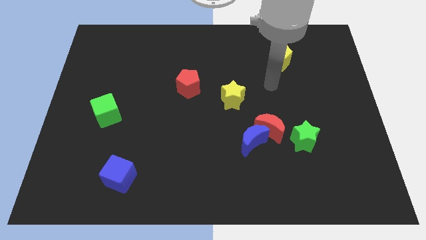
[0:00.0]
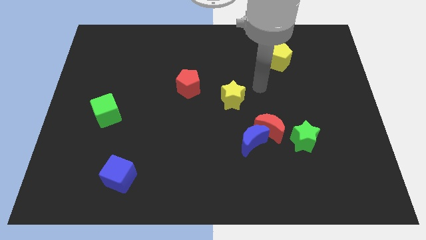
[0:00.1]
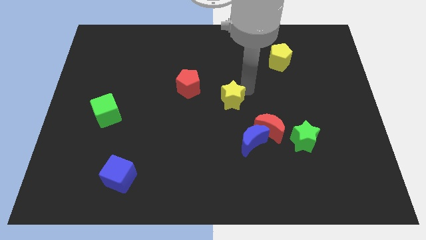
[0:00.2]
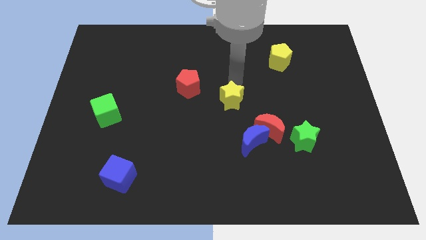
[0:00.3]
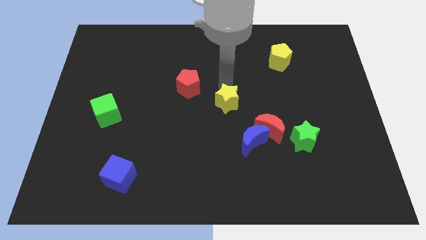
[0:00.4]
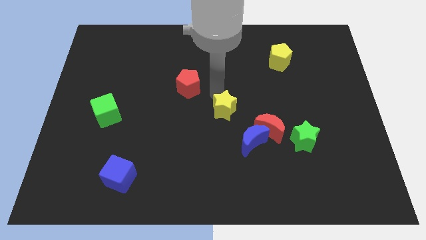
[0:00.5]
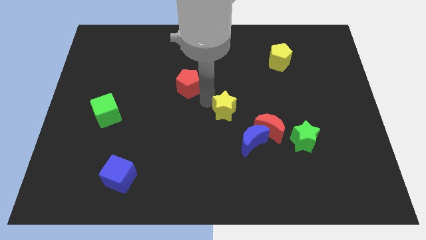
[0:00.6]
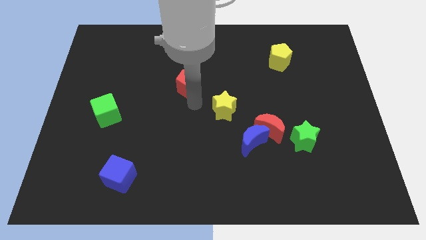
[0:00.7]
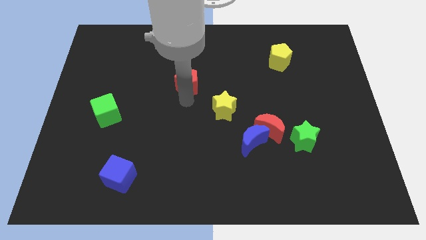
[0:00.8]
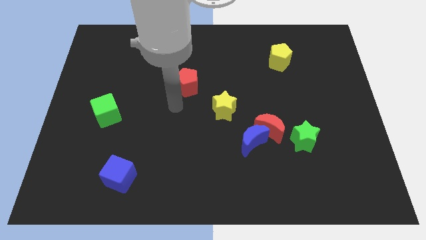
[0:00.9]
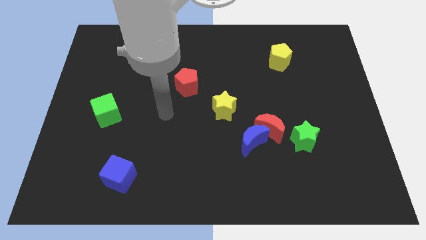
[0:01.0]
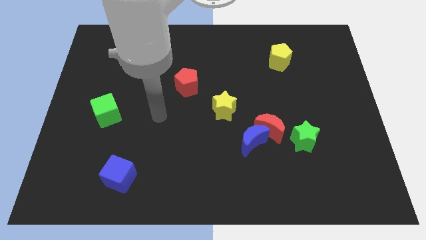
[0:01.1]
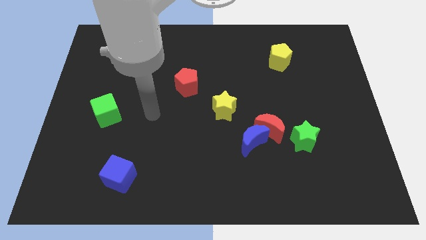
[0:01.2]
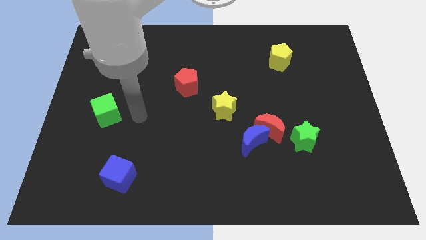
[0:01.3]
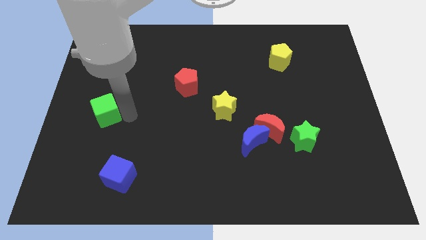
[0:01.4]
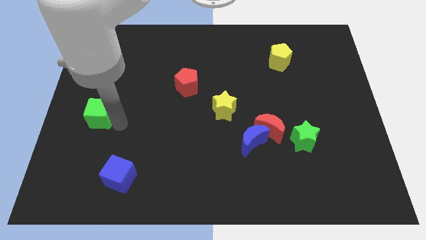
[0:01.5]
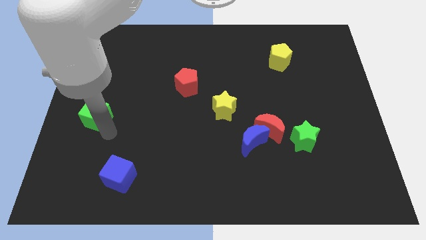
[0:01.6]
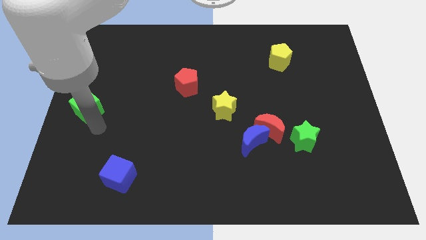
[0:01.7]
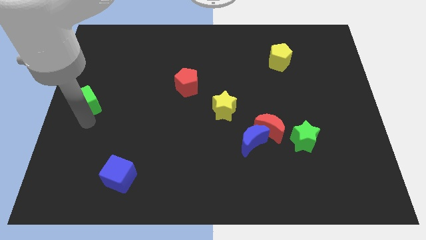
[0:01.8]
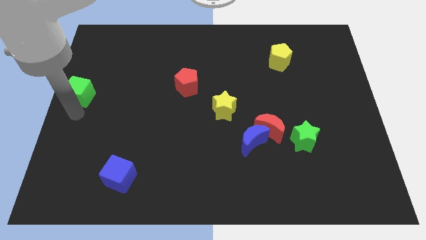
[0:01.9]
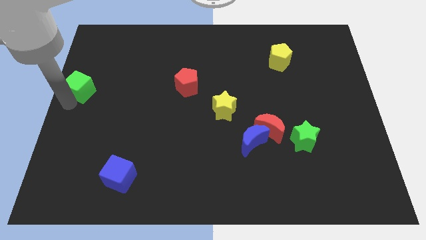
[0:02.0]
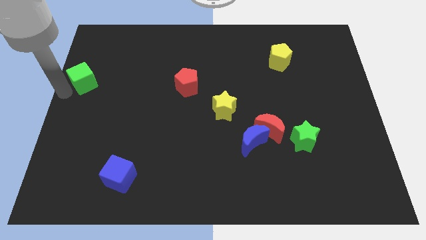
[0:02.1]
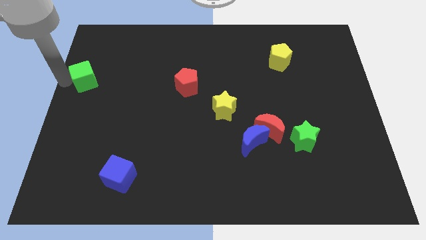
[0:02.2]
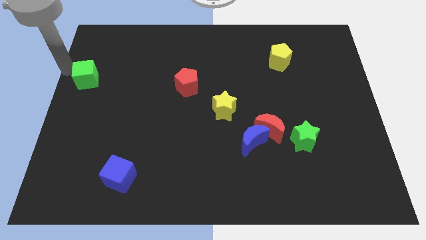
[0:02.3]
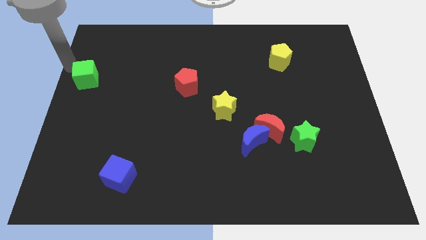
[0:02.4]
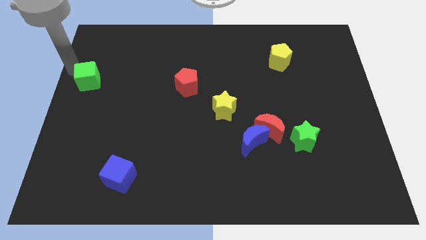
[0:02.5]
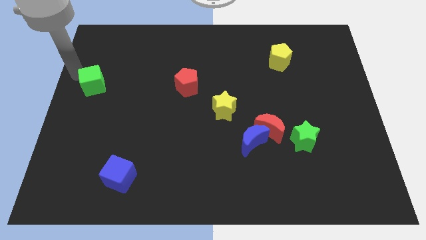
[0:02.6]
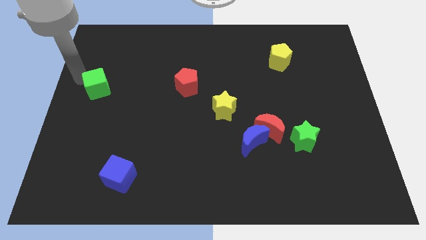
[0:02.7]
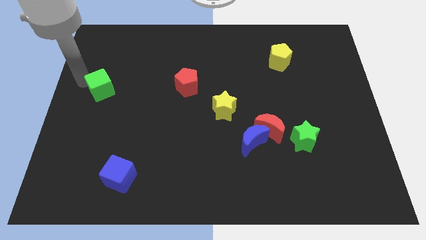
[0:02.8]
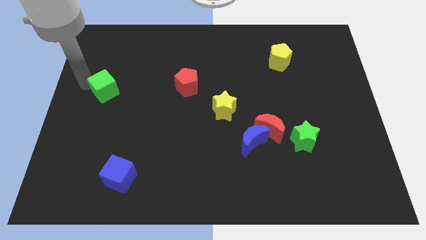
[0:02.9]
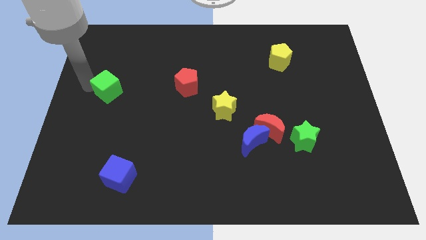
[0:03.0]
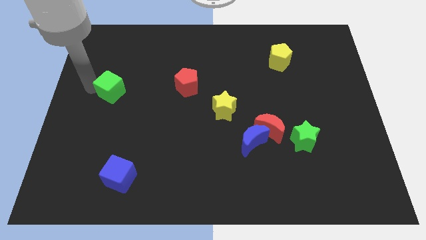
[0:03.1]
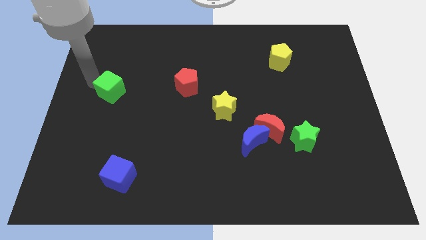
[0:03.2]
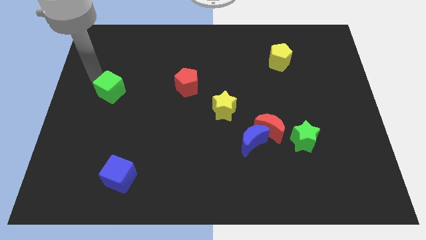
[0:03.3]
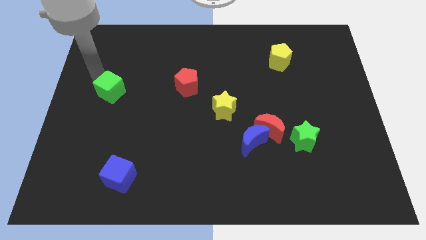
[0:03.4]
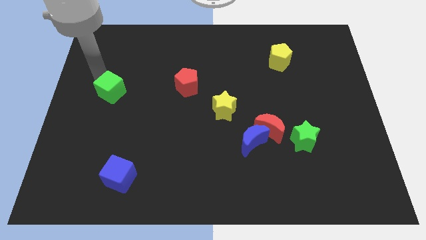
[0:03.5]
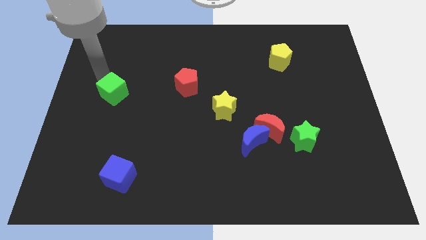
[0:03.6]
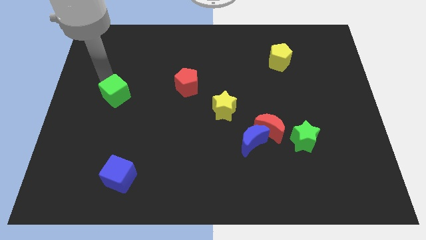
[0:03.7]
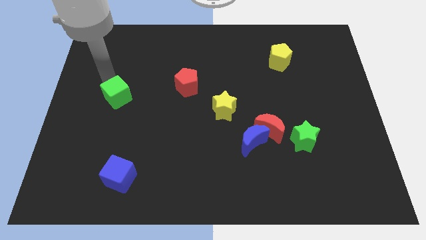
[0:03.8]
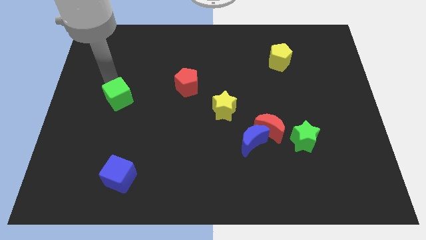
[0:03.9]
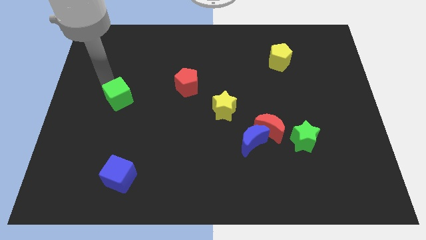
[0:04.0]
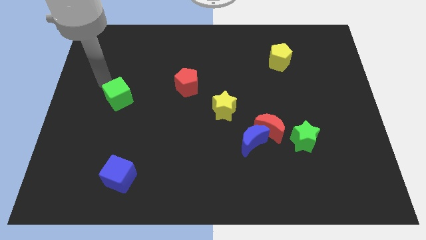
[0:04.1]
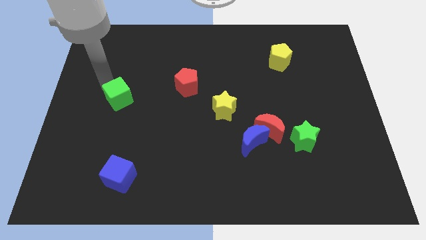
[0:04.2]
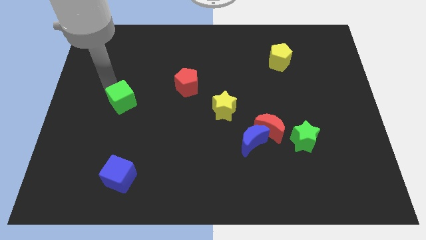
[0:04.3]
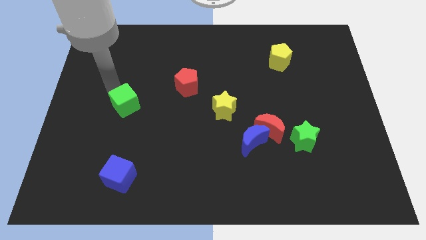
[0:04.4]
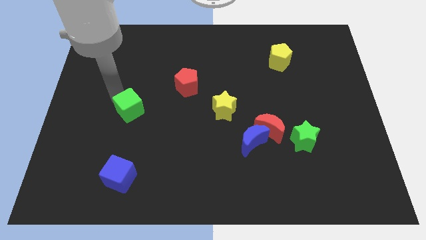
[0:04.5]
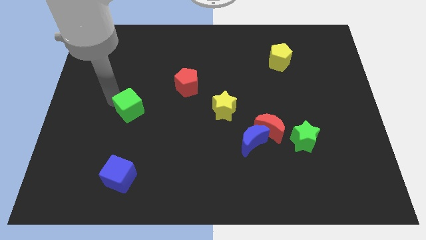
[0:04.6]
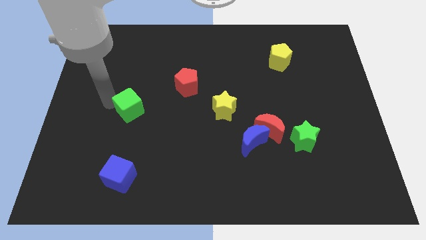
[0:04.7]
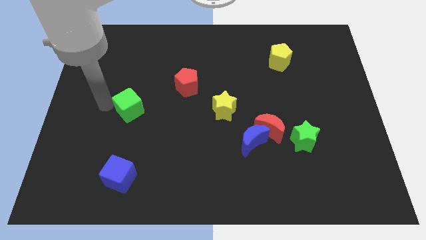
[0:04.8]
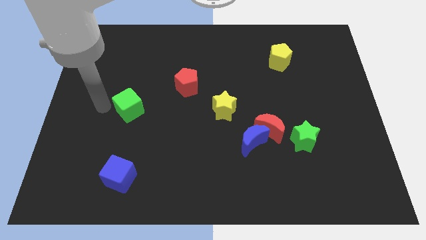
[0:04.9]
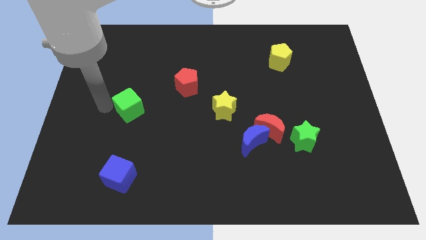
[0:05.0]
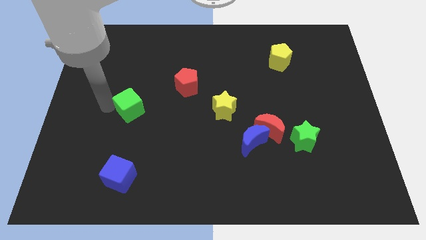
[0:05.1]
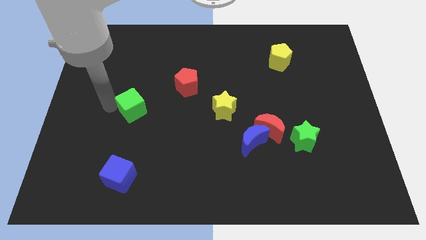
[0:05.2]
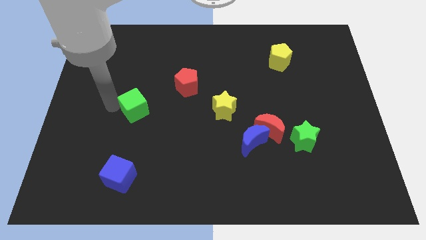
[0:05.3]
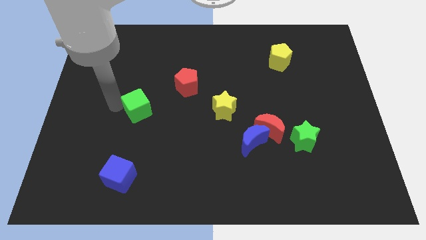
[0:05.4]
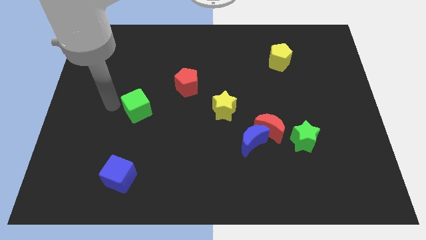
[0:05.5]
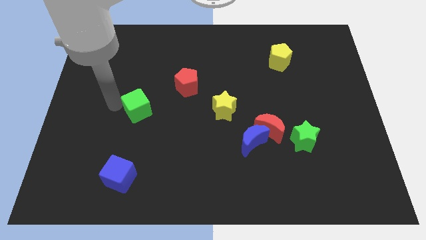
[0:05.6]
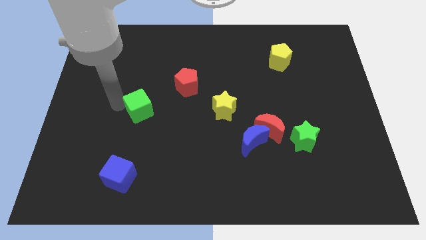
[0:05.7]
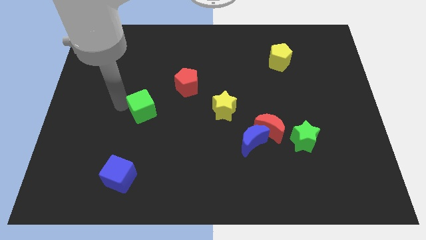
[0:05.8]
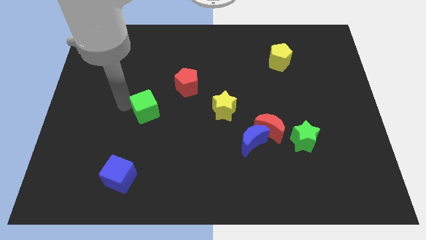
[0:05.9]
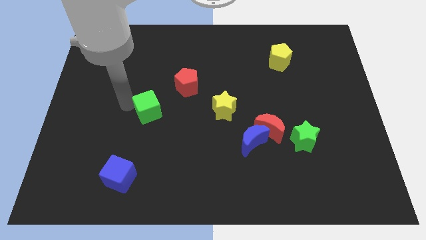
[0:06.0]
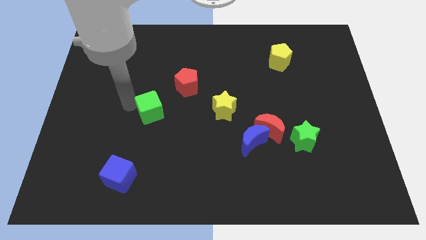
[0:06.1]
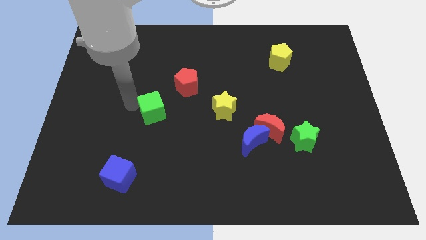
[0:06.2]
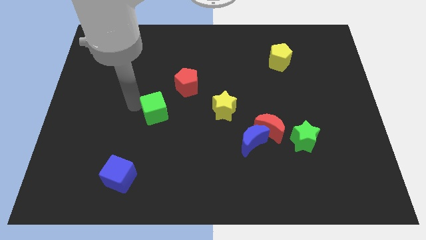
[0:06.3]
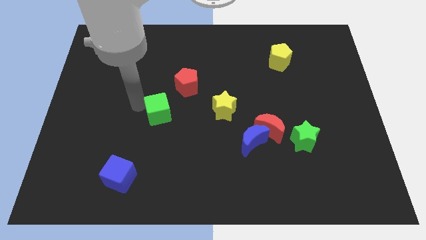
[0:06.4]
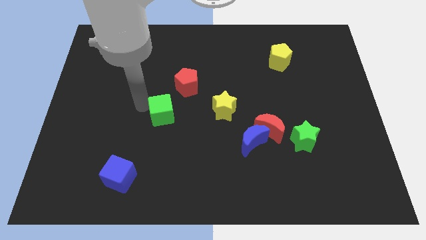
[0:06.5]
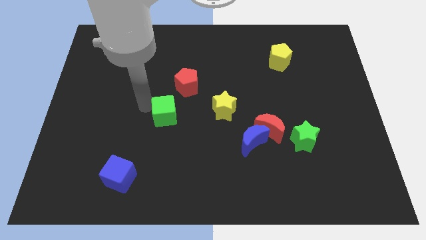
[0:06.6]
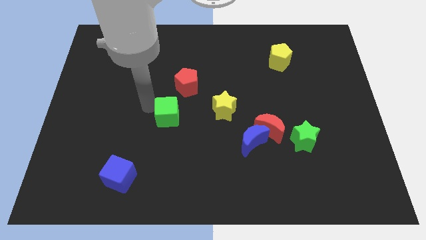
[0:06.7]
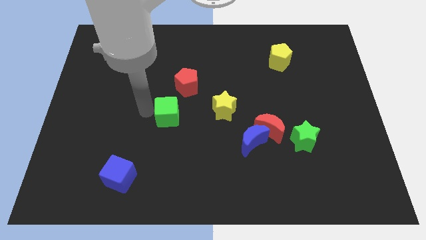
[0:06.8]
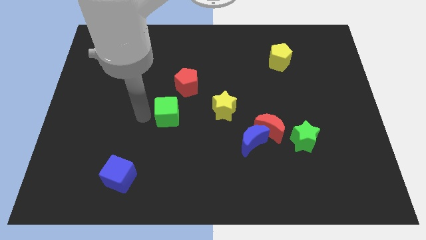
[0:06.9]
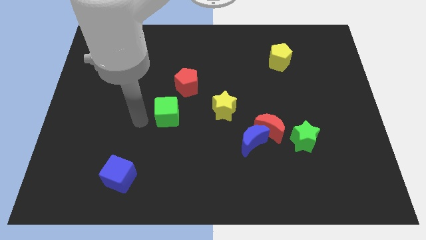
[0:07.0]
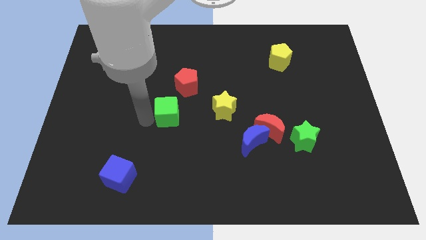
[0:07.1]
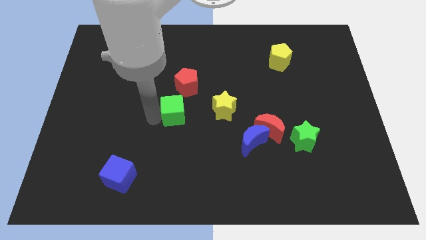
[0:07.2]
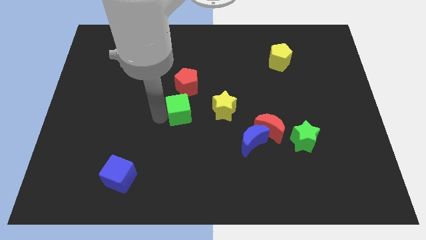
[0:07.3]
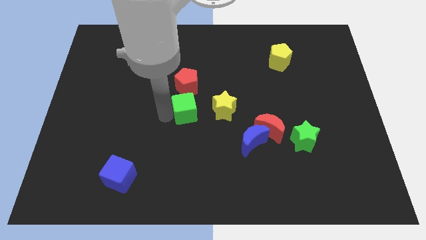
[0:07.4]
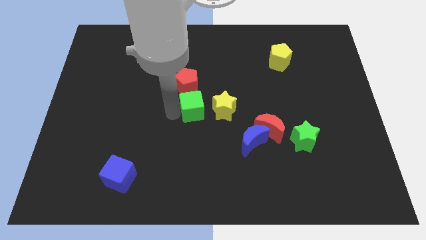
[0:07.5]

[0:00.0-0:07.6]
move the green cube to the right

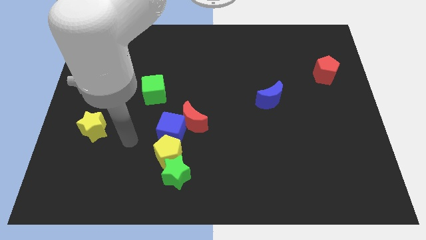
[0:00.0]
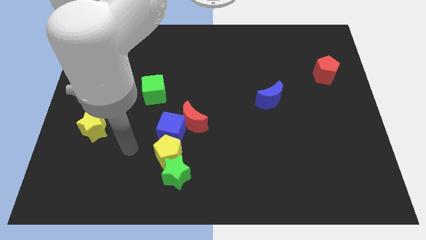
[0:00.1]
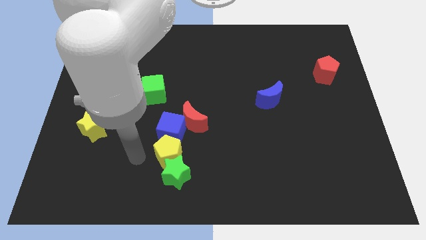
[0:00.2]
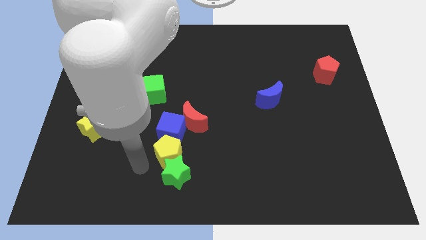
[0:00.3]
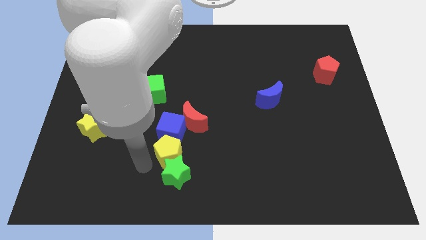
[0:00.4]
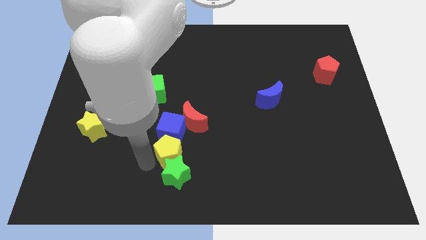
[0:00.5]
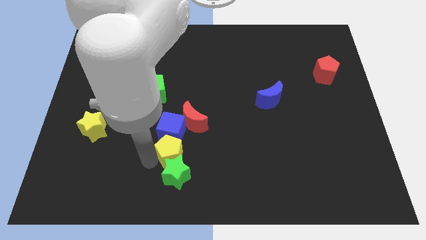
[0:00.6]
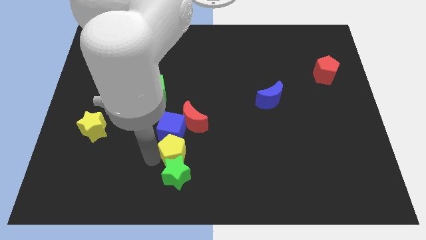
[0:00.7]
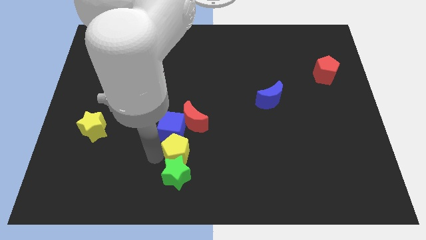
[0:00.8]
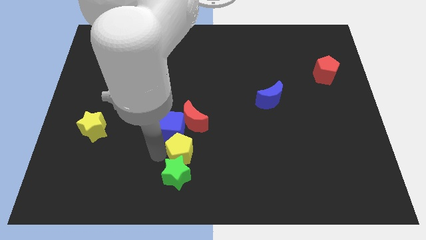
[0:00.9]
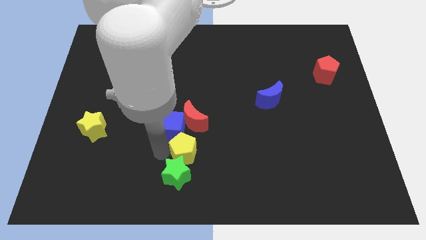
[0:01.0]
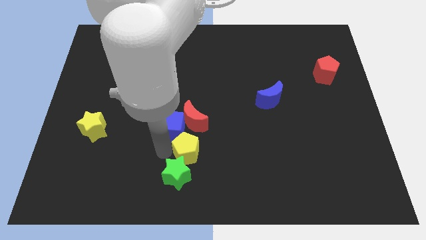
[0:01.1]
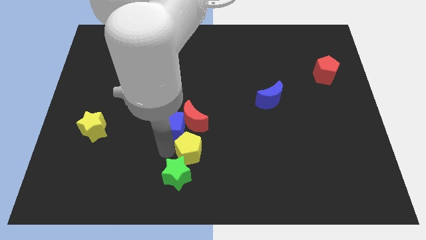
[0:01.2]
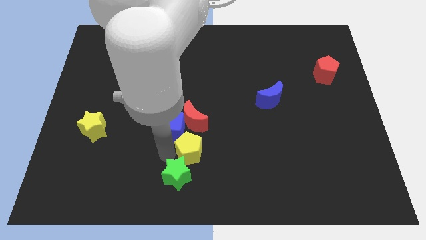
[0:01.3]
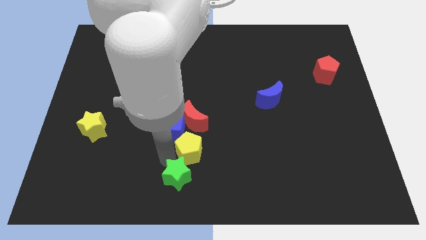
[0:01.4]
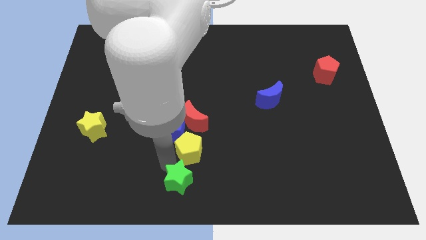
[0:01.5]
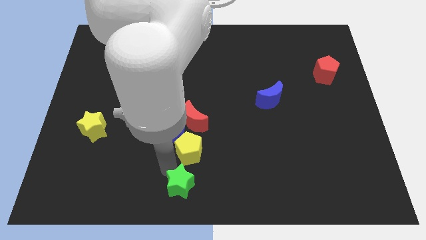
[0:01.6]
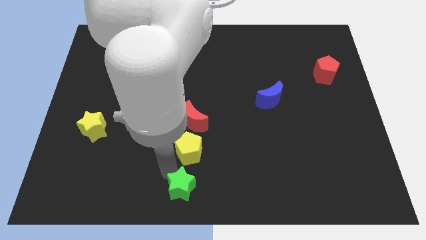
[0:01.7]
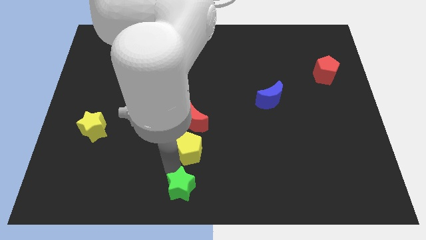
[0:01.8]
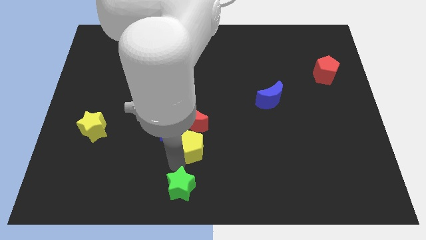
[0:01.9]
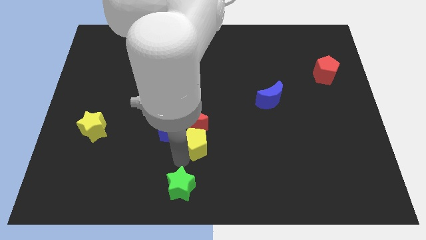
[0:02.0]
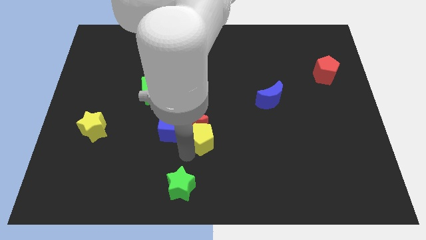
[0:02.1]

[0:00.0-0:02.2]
move the yellow pentagon up and to the right diagonally a little bit
